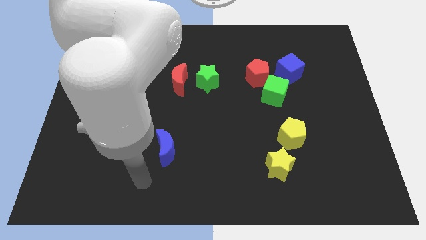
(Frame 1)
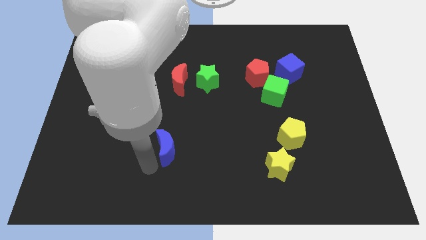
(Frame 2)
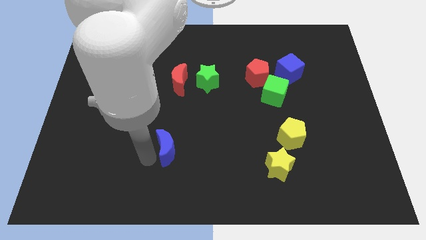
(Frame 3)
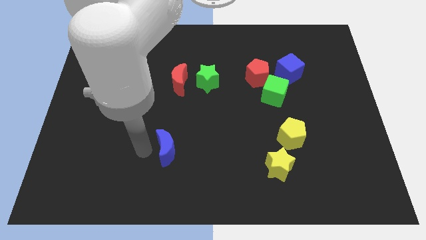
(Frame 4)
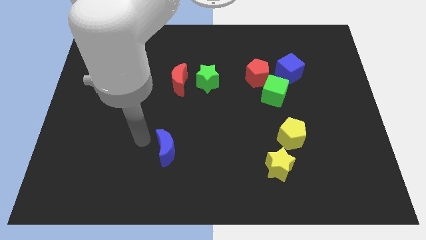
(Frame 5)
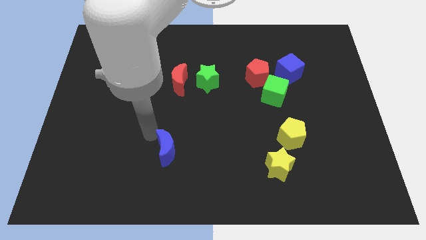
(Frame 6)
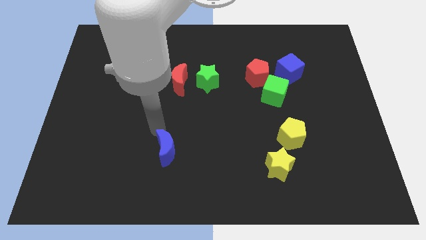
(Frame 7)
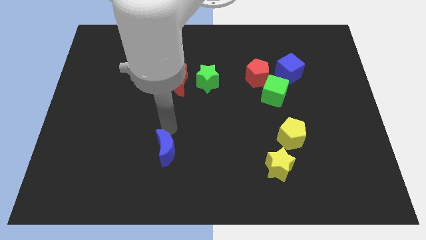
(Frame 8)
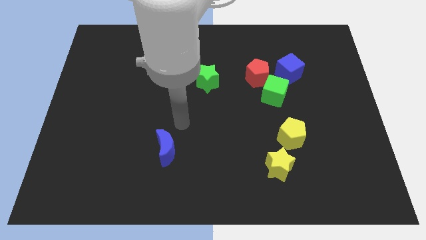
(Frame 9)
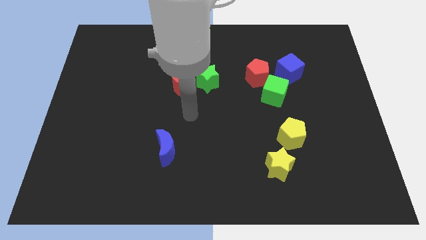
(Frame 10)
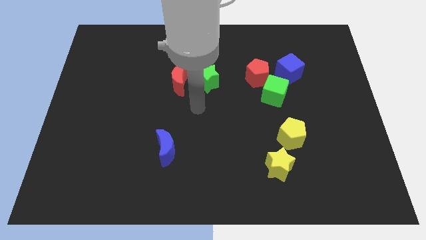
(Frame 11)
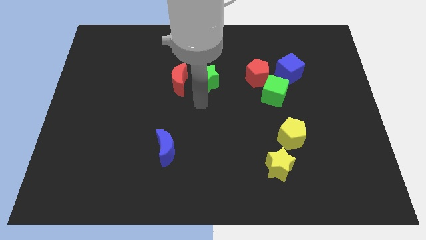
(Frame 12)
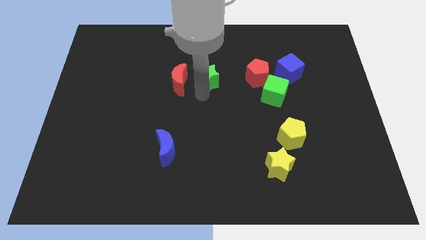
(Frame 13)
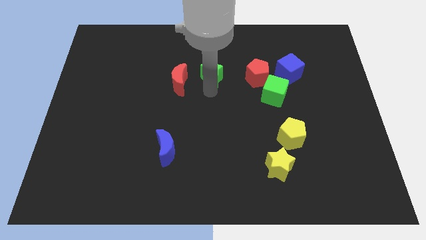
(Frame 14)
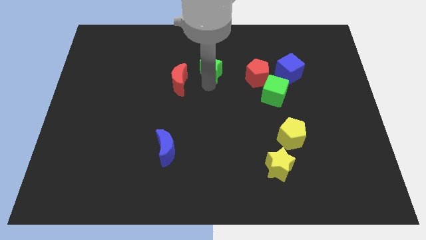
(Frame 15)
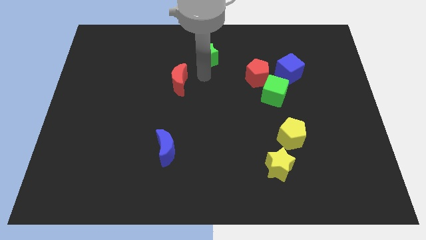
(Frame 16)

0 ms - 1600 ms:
separate the red moon from the green star

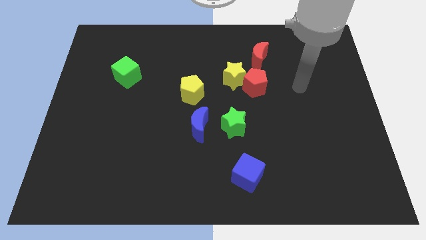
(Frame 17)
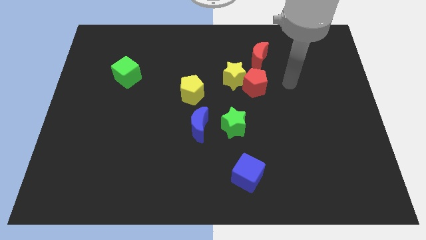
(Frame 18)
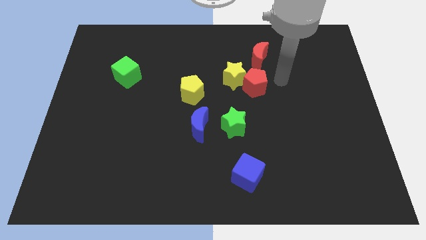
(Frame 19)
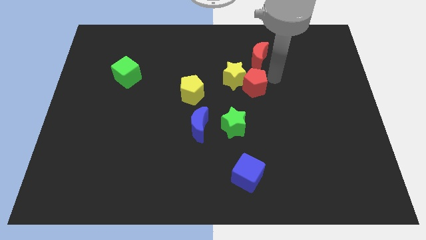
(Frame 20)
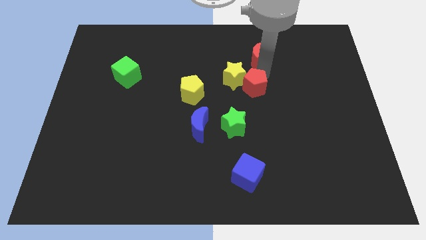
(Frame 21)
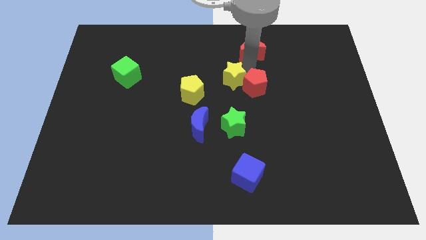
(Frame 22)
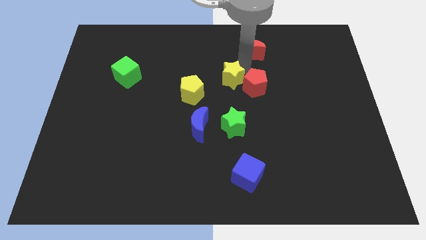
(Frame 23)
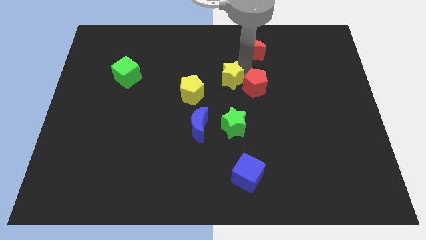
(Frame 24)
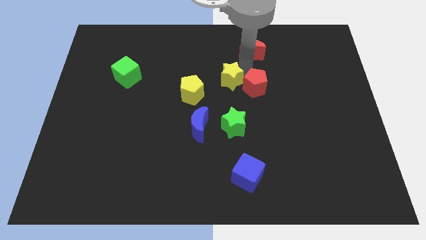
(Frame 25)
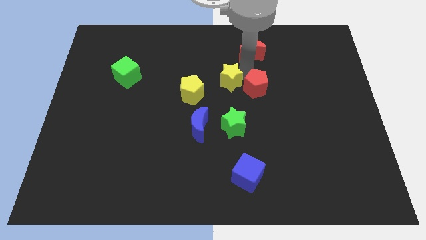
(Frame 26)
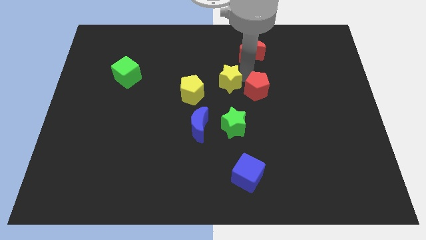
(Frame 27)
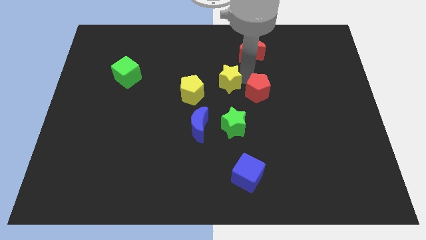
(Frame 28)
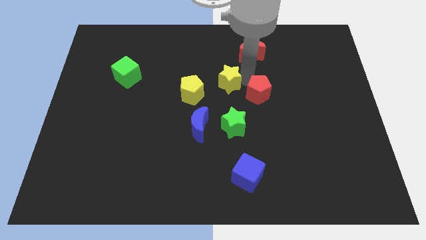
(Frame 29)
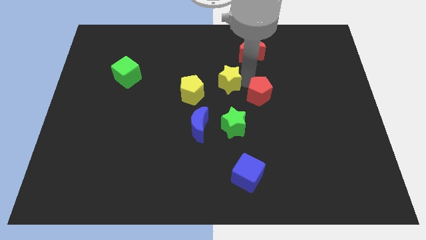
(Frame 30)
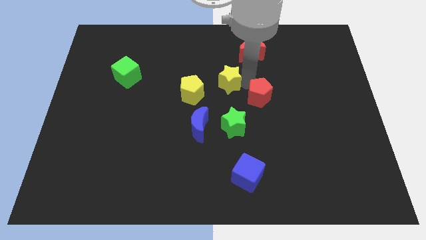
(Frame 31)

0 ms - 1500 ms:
move the red pentagon away from the yellow star and red moon

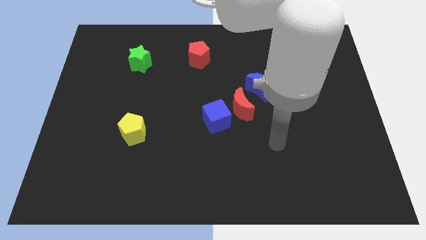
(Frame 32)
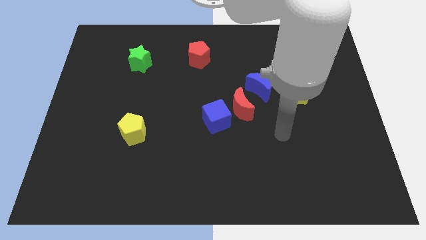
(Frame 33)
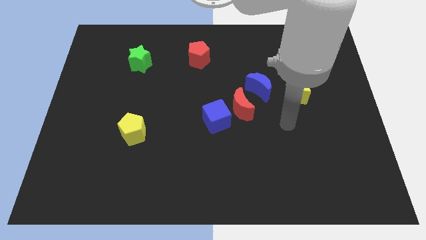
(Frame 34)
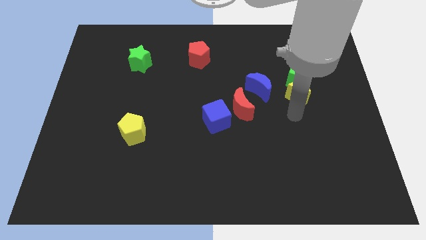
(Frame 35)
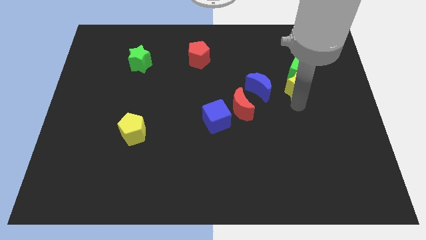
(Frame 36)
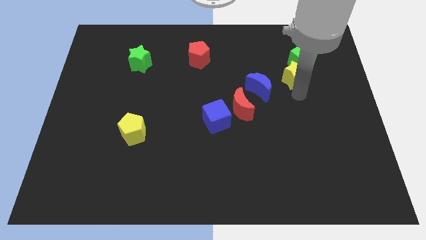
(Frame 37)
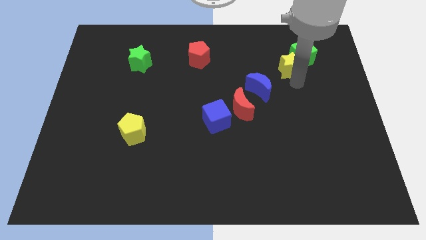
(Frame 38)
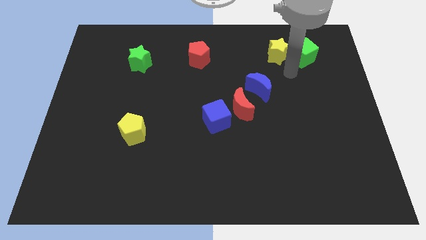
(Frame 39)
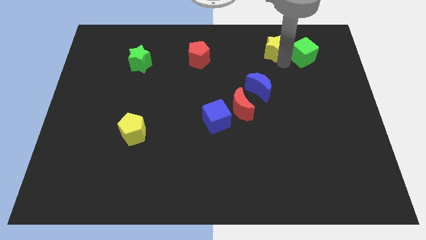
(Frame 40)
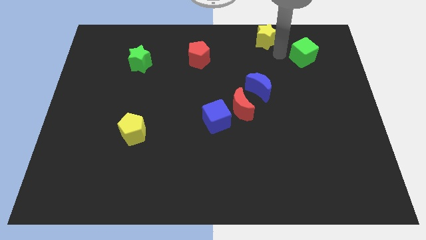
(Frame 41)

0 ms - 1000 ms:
pull the green cube apart from the yellow star

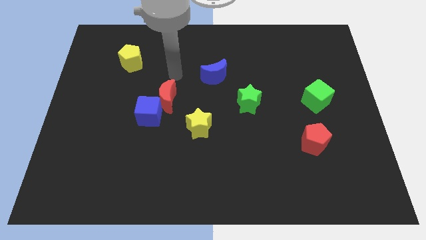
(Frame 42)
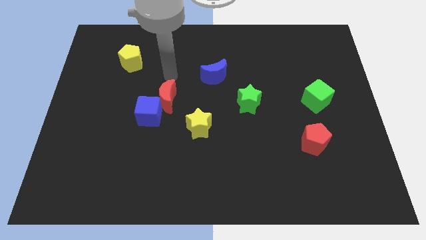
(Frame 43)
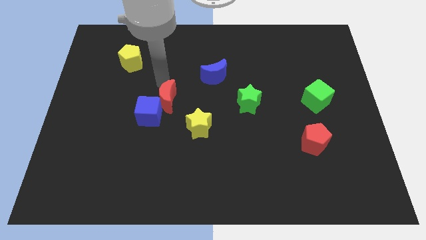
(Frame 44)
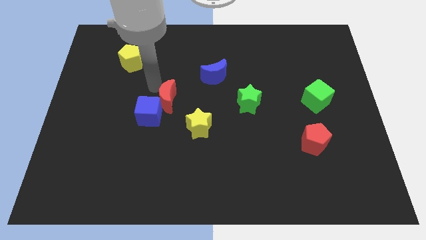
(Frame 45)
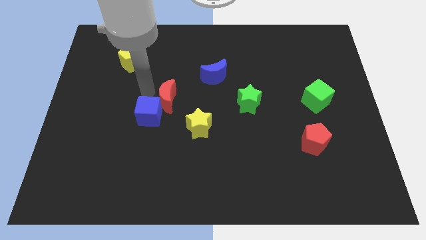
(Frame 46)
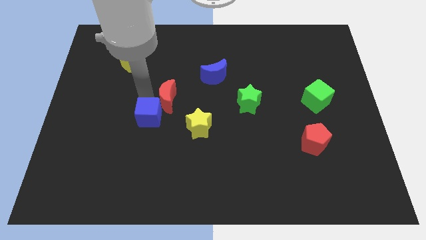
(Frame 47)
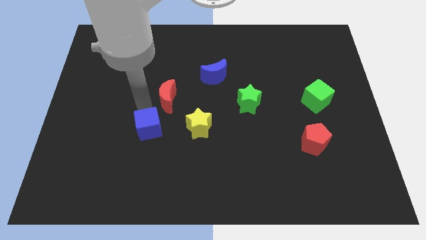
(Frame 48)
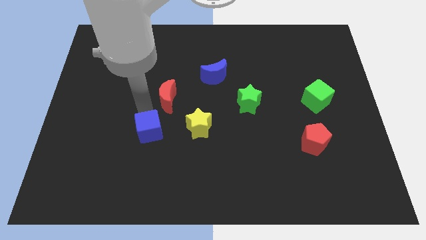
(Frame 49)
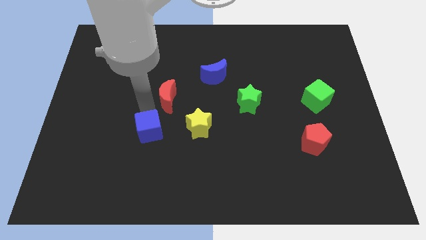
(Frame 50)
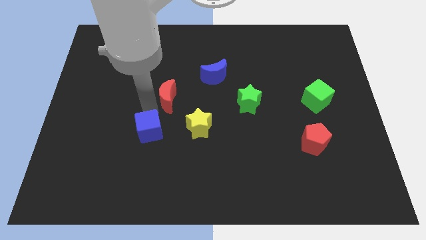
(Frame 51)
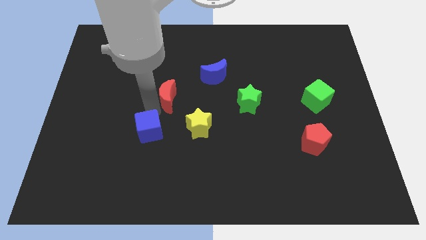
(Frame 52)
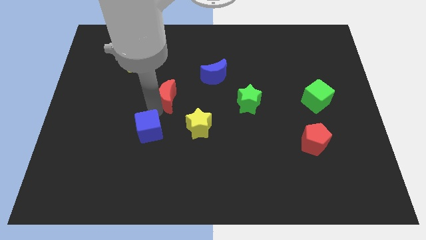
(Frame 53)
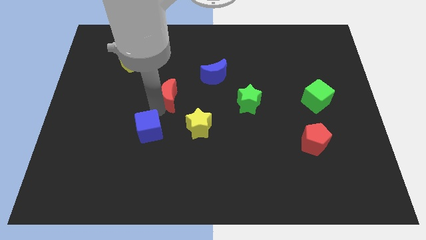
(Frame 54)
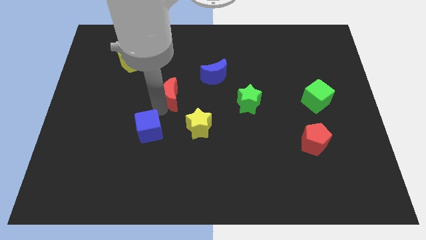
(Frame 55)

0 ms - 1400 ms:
pull the red moon apart from the blue cube

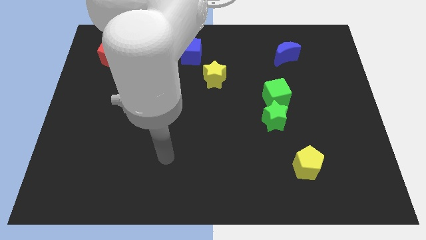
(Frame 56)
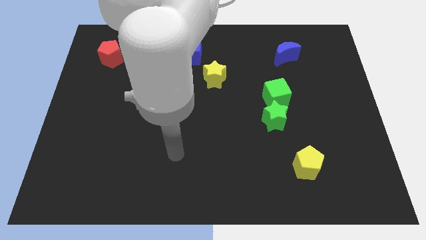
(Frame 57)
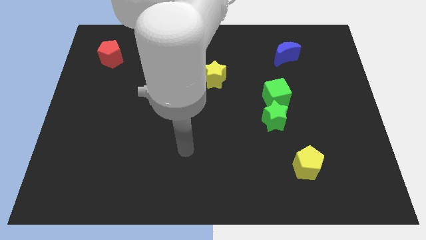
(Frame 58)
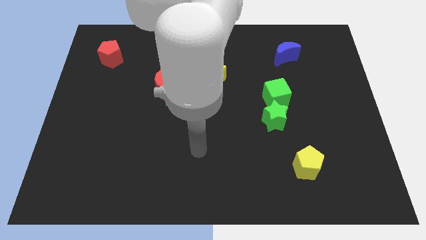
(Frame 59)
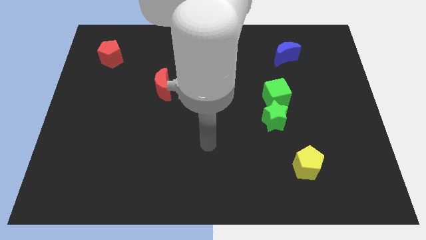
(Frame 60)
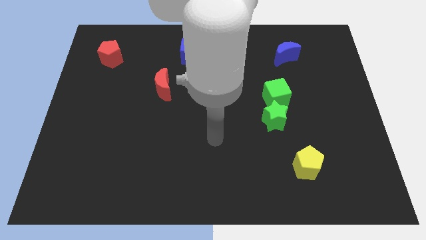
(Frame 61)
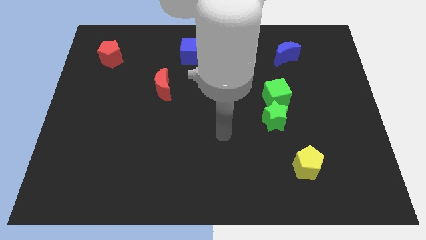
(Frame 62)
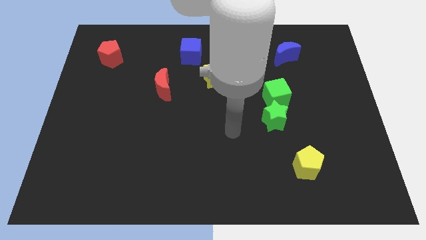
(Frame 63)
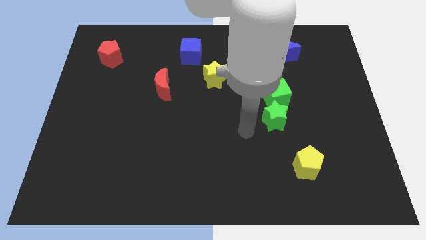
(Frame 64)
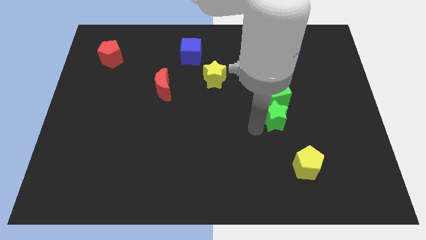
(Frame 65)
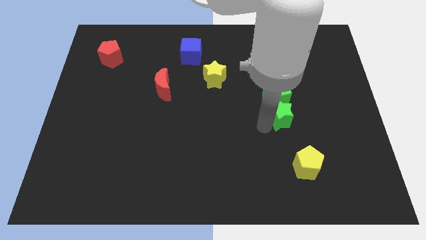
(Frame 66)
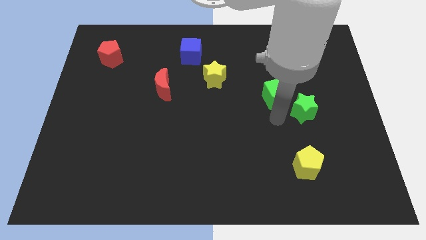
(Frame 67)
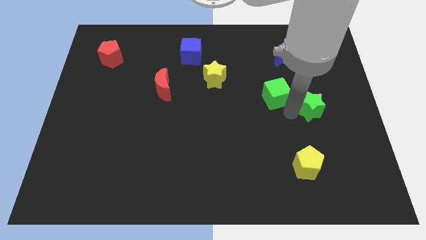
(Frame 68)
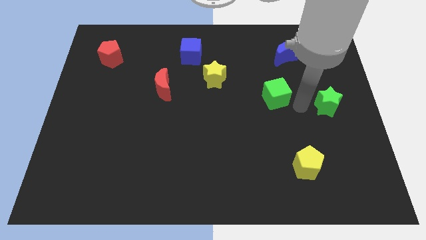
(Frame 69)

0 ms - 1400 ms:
move the green cube away from the green star

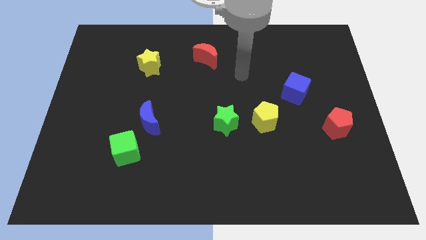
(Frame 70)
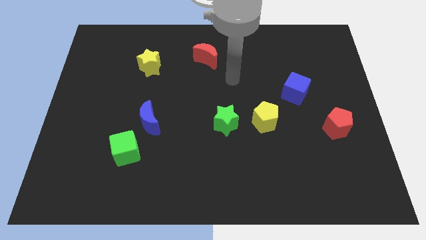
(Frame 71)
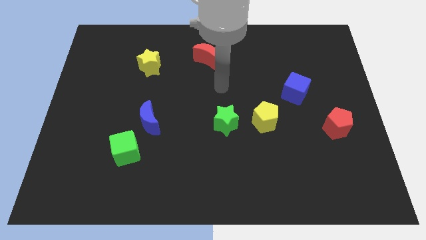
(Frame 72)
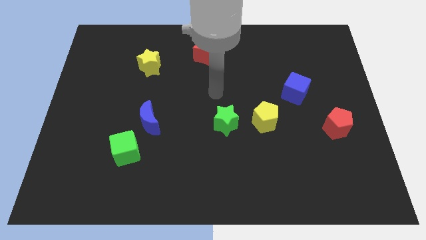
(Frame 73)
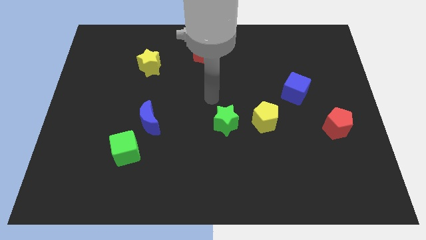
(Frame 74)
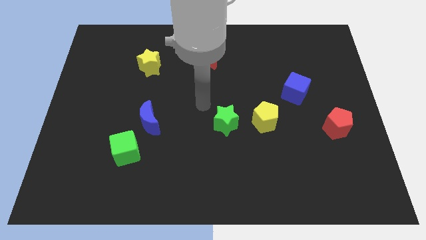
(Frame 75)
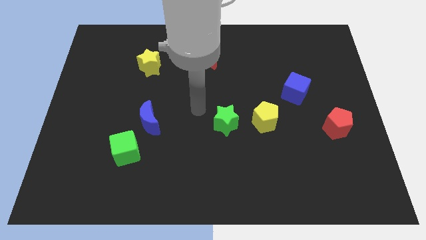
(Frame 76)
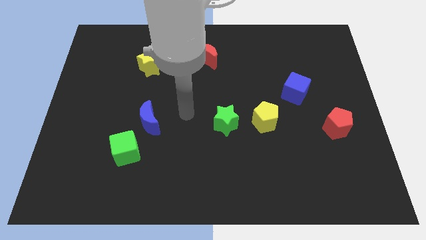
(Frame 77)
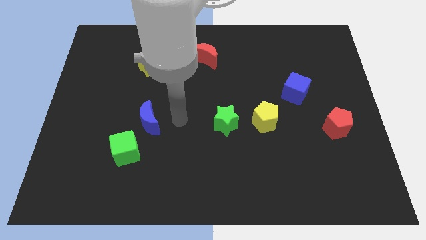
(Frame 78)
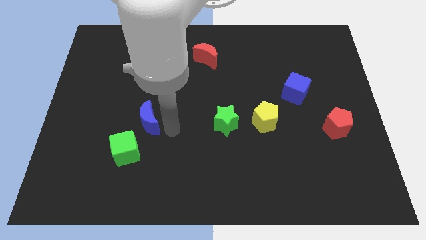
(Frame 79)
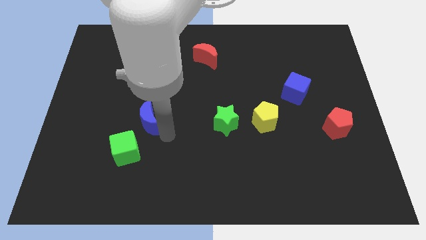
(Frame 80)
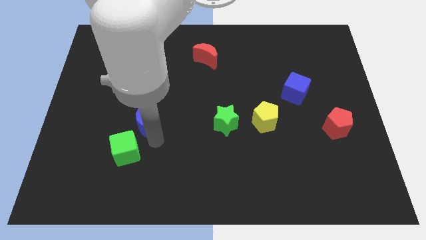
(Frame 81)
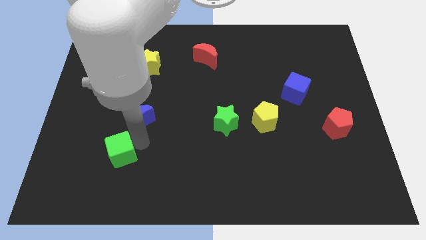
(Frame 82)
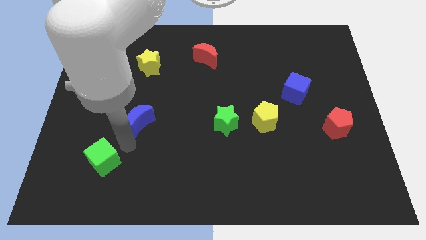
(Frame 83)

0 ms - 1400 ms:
pull the blue moon apart from the green cube

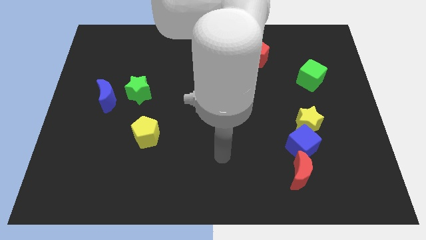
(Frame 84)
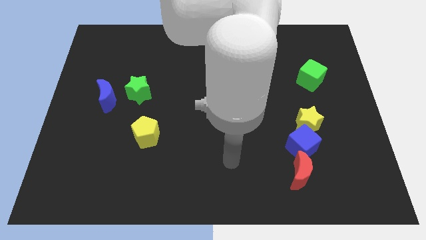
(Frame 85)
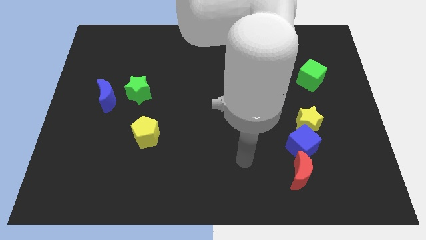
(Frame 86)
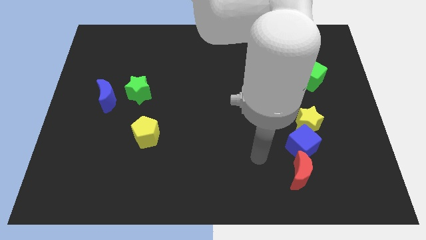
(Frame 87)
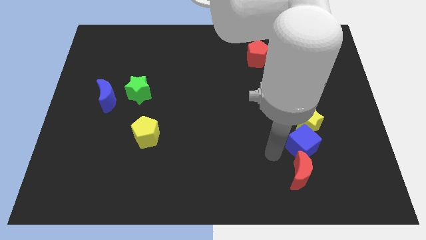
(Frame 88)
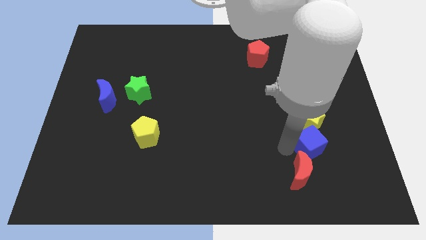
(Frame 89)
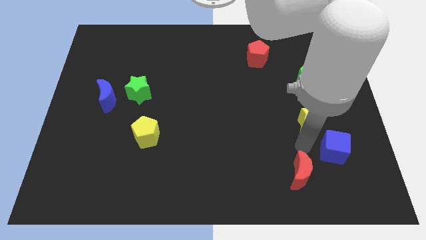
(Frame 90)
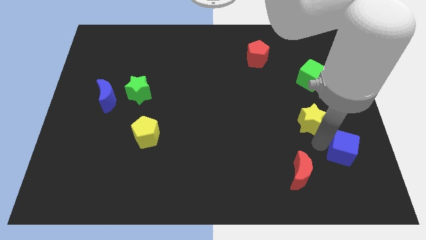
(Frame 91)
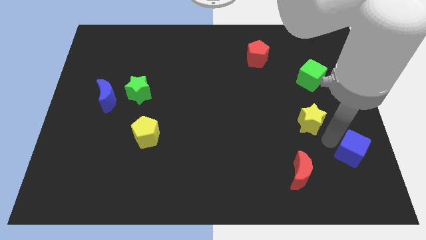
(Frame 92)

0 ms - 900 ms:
pull the yellow star apart from the blue cube
